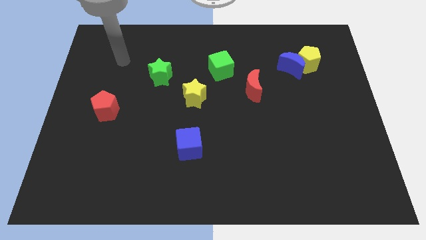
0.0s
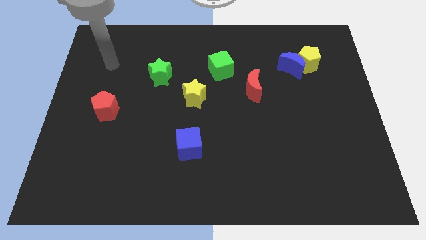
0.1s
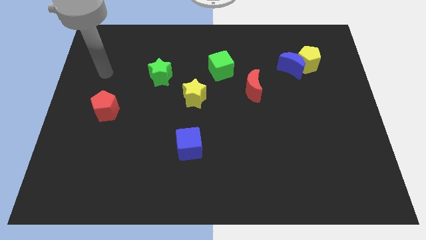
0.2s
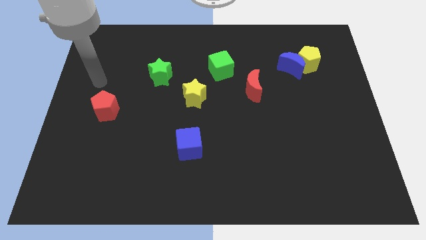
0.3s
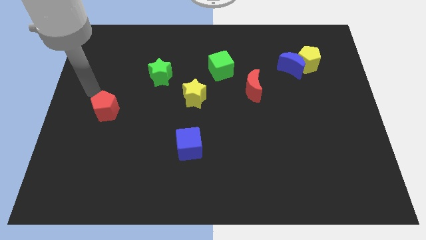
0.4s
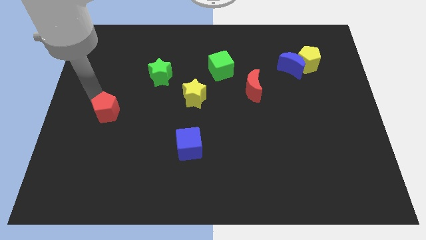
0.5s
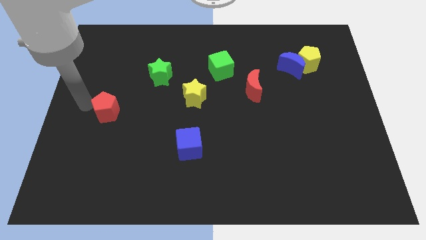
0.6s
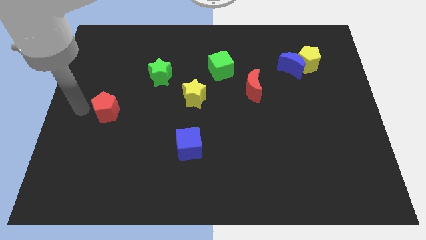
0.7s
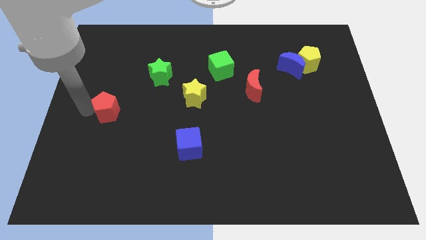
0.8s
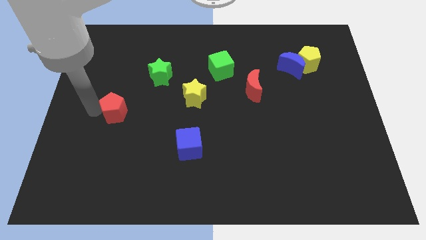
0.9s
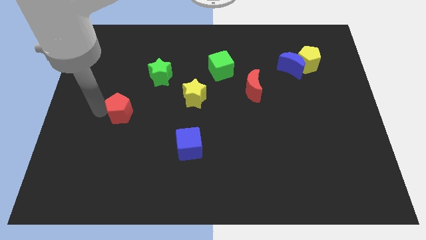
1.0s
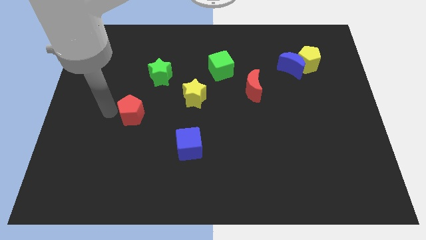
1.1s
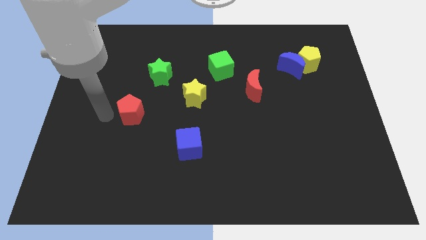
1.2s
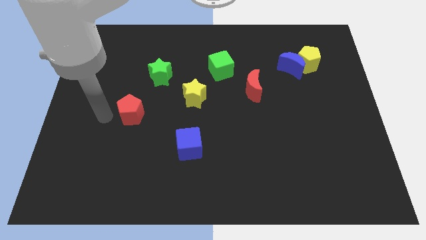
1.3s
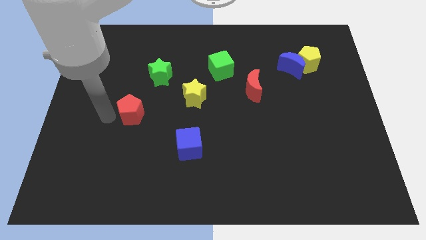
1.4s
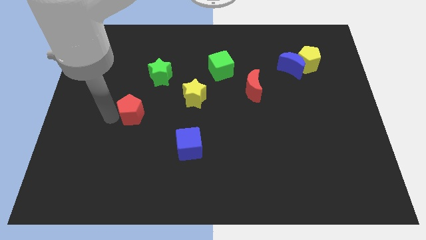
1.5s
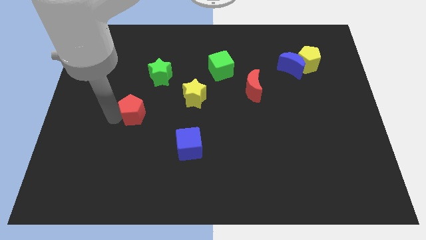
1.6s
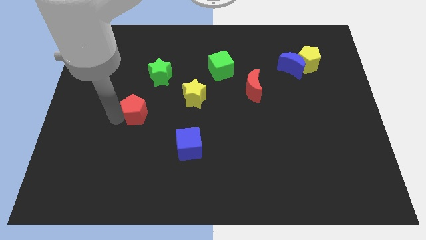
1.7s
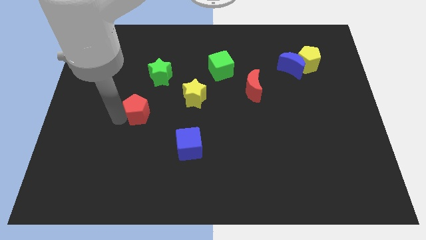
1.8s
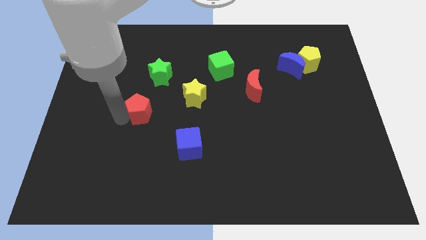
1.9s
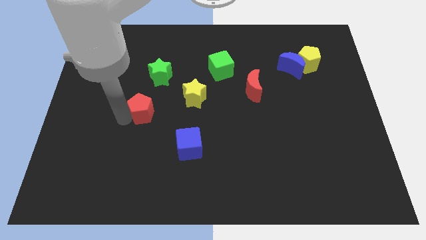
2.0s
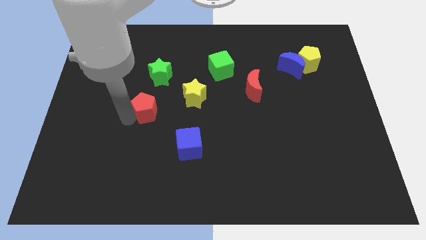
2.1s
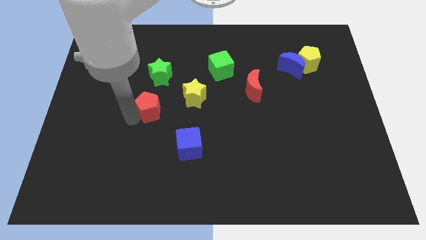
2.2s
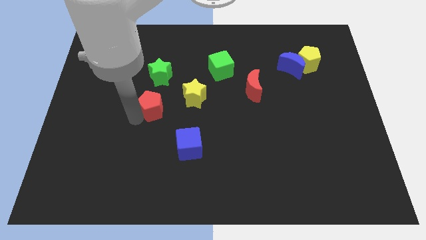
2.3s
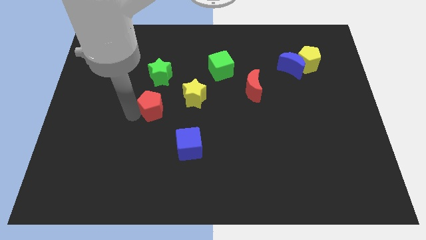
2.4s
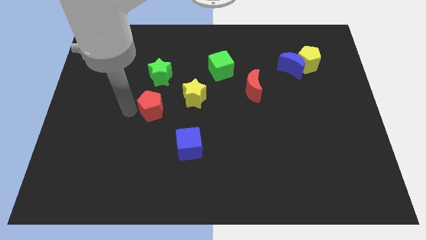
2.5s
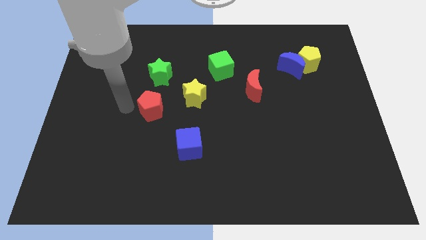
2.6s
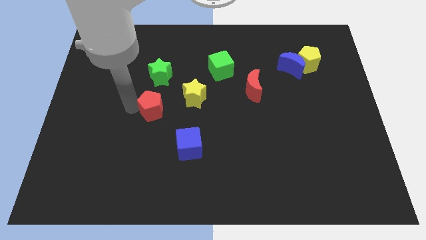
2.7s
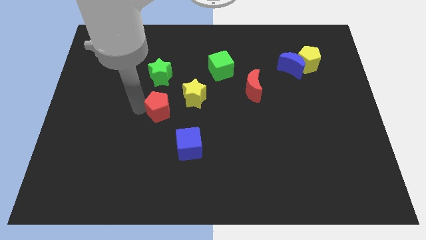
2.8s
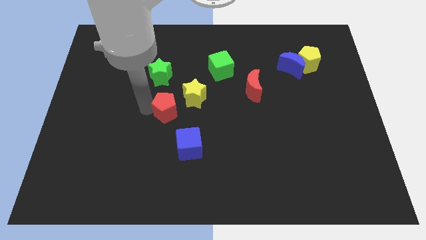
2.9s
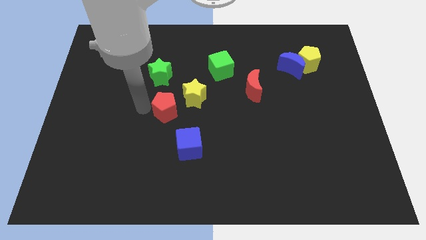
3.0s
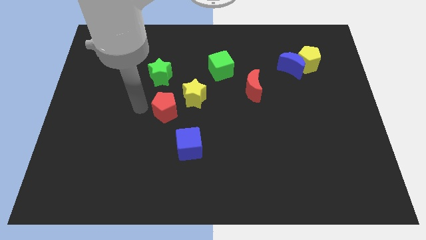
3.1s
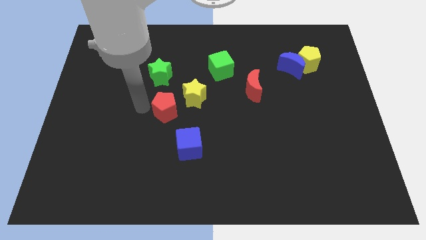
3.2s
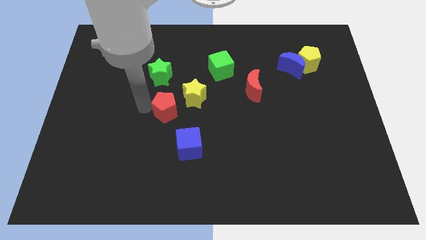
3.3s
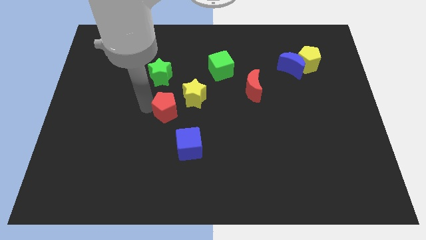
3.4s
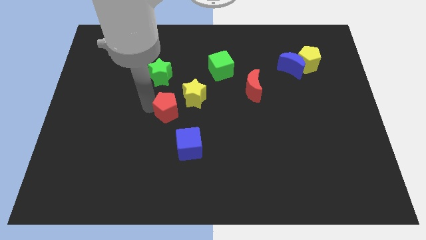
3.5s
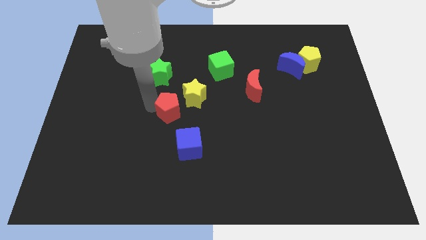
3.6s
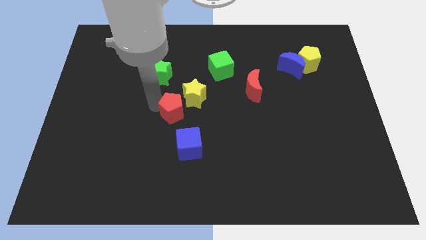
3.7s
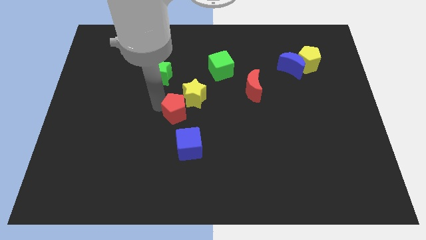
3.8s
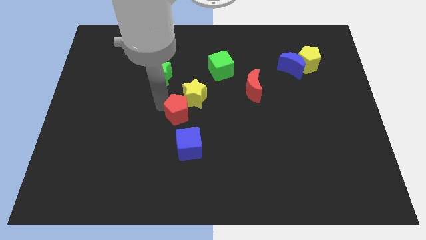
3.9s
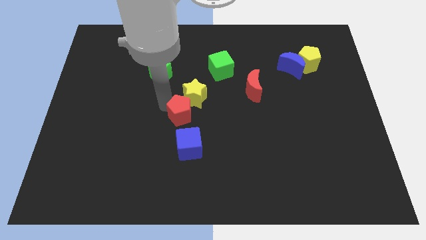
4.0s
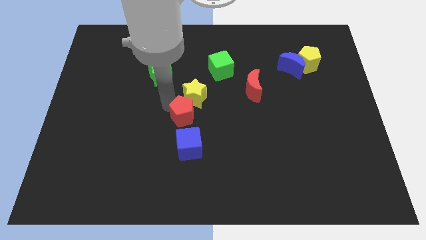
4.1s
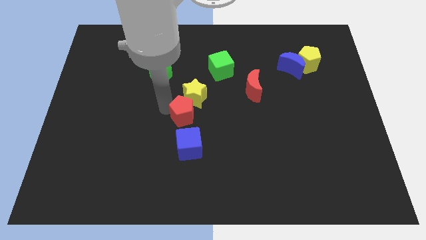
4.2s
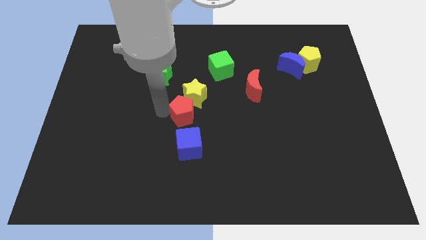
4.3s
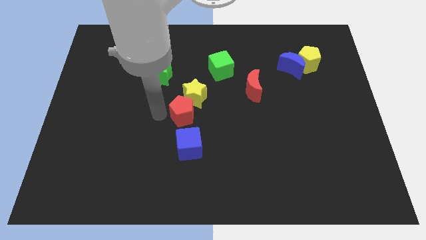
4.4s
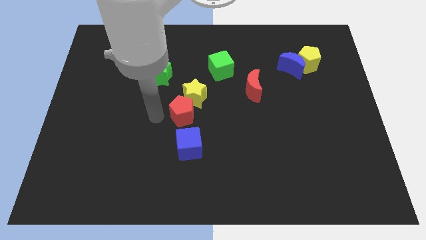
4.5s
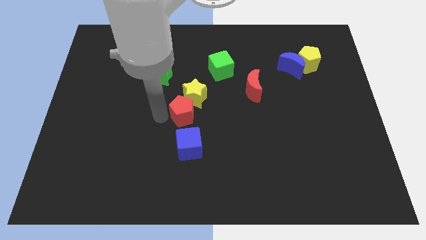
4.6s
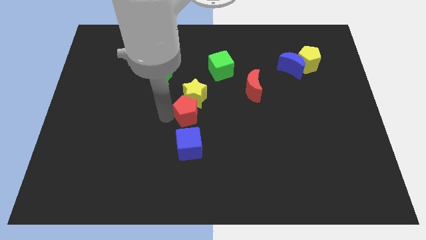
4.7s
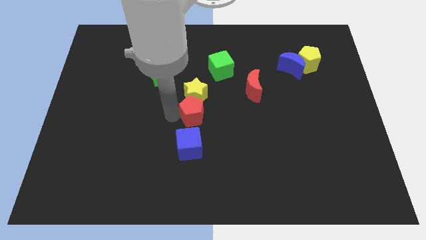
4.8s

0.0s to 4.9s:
slide the red pentagon right

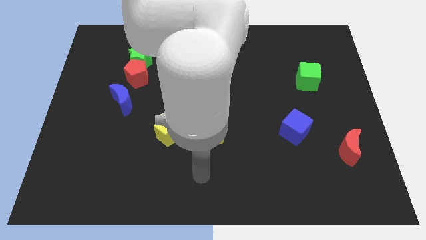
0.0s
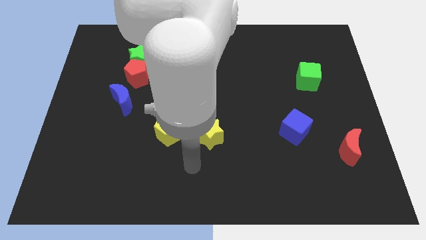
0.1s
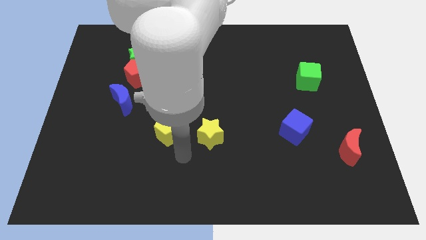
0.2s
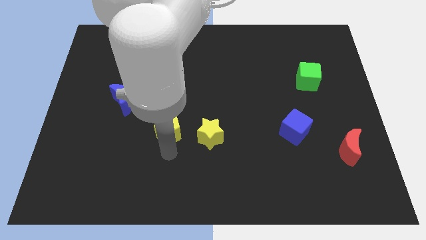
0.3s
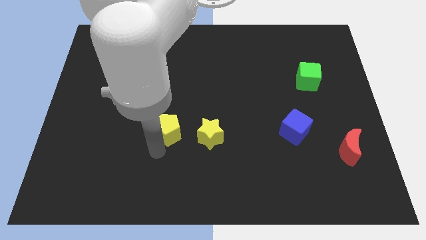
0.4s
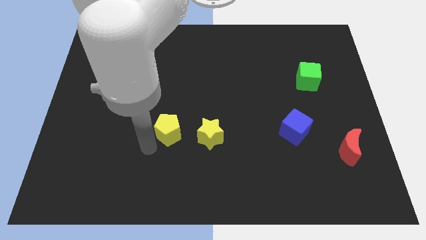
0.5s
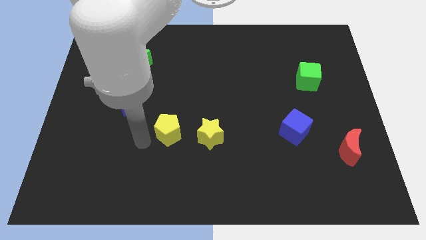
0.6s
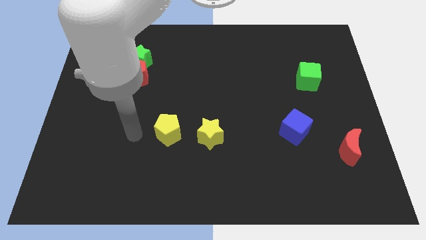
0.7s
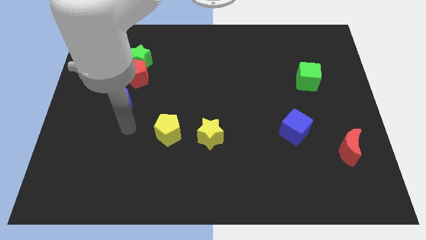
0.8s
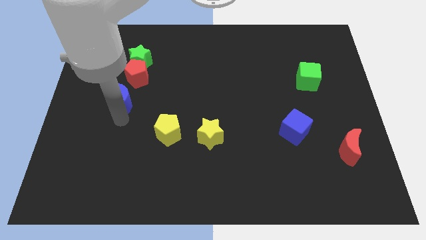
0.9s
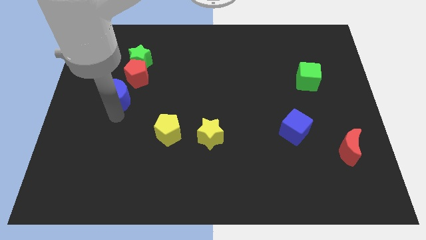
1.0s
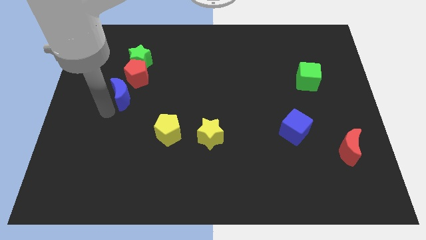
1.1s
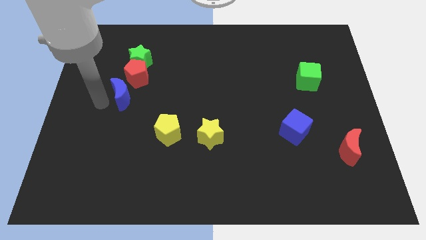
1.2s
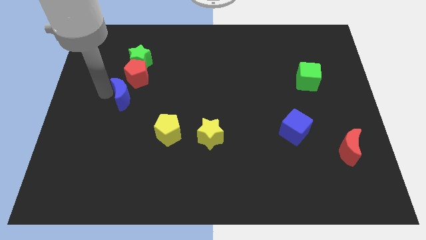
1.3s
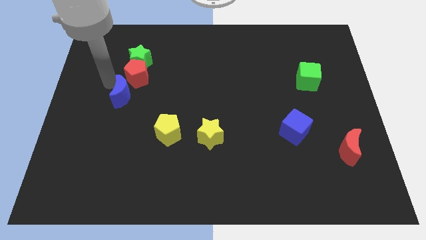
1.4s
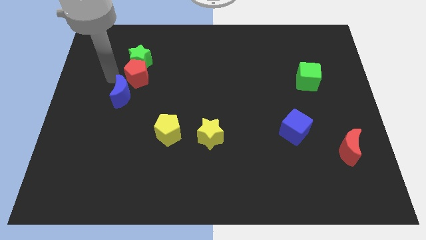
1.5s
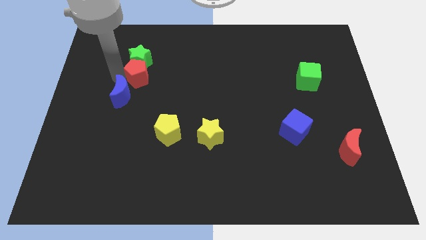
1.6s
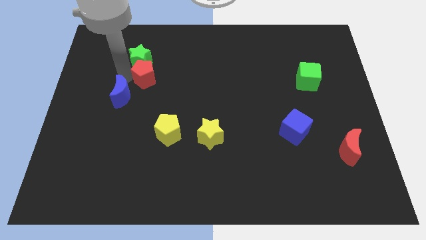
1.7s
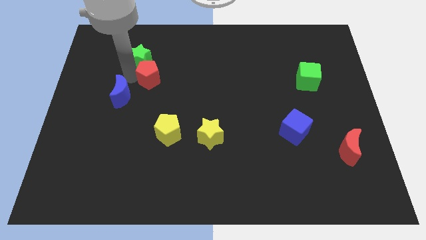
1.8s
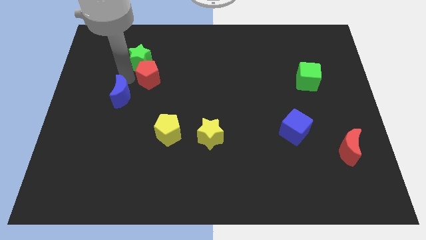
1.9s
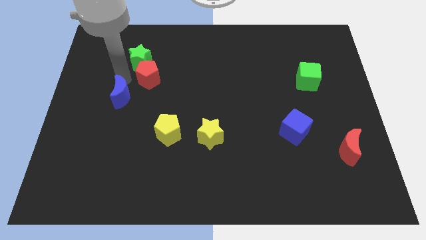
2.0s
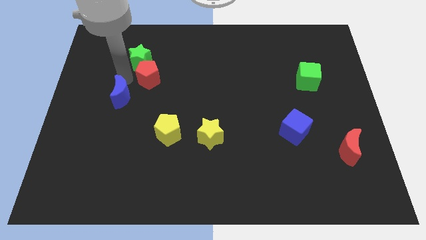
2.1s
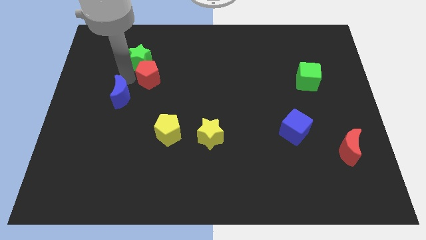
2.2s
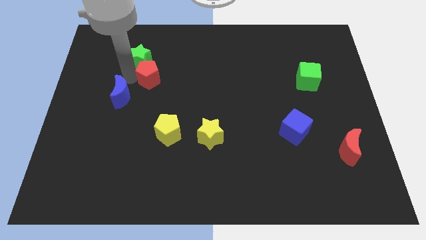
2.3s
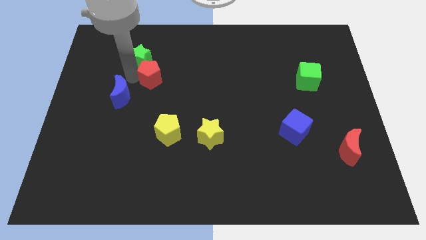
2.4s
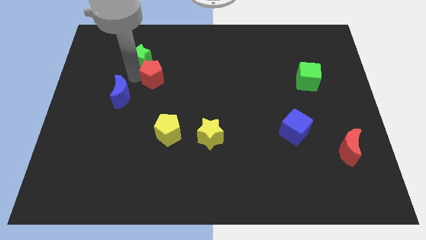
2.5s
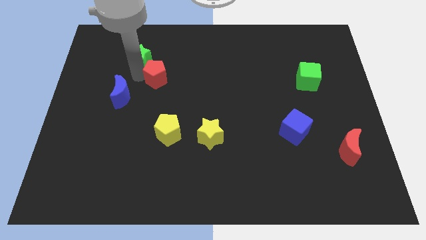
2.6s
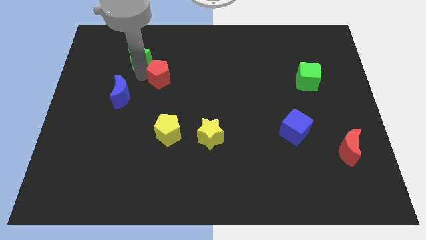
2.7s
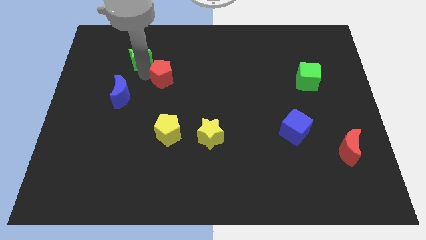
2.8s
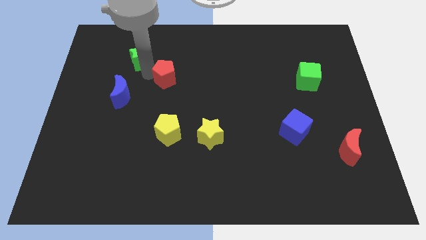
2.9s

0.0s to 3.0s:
slightly move the red pentagon to the right
